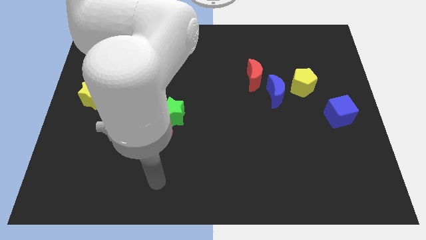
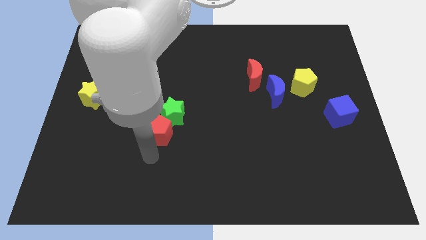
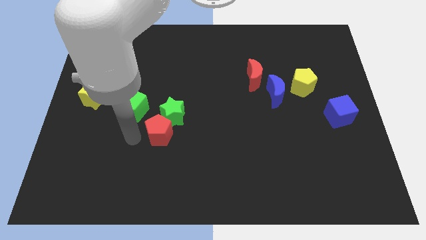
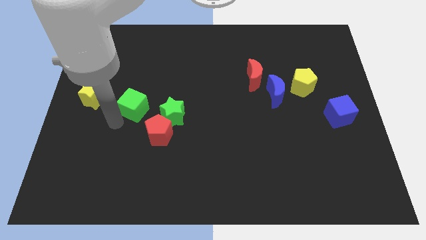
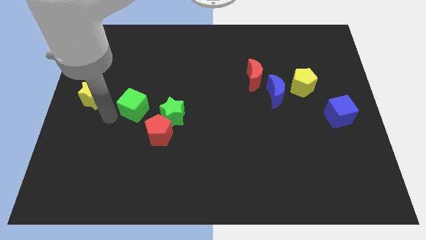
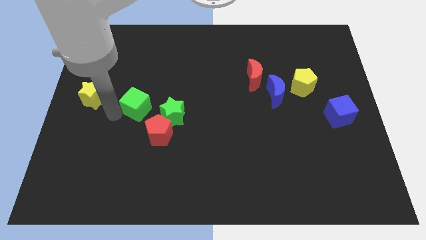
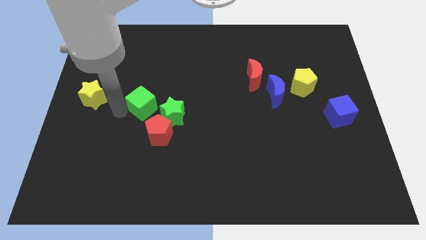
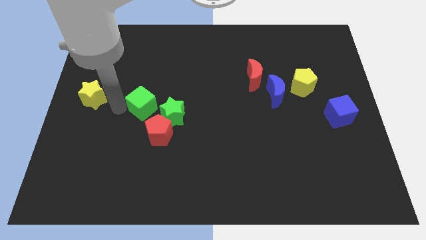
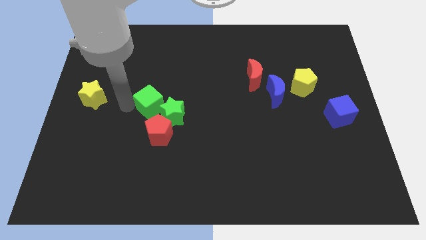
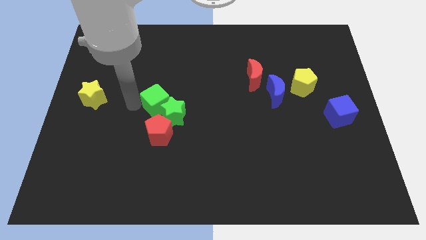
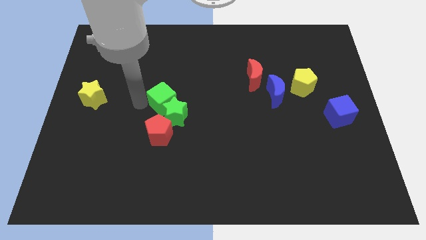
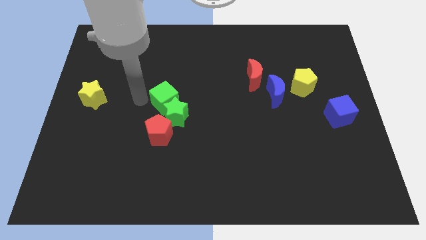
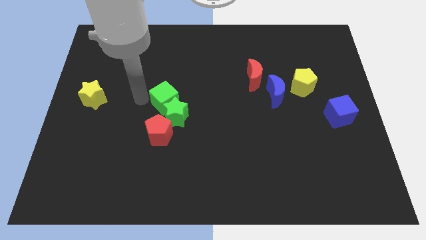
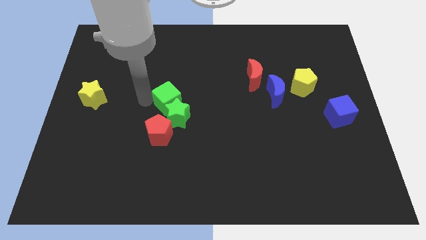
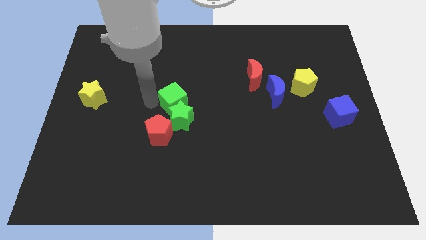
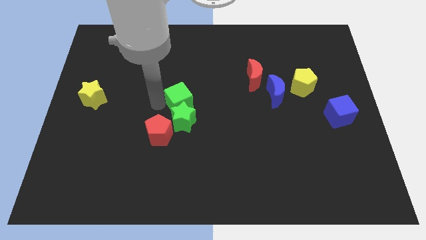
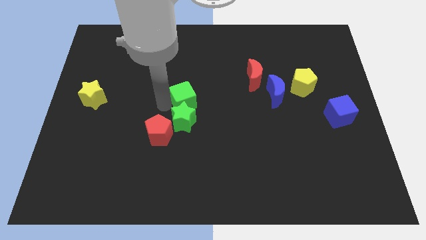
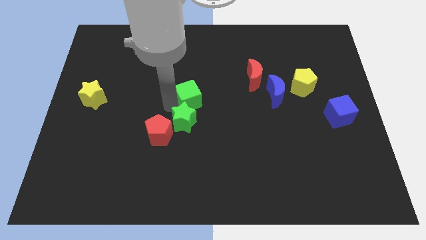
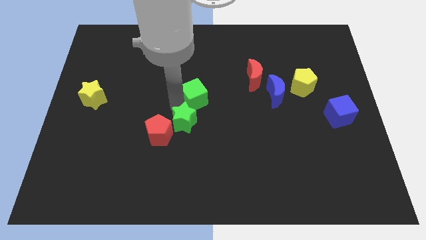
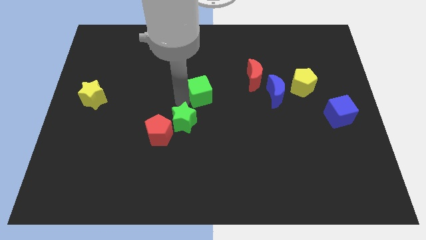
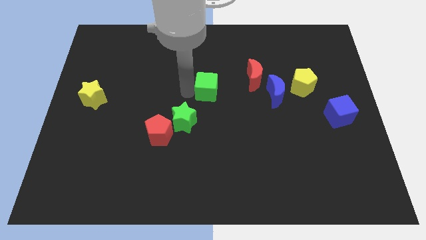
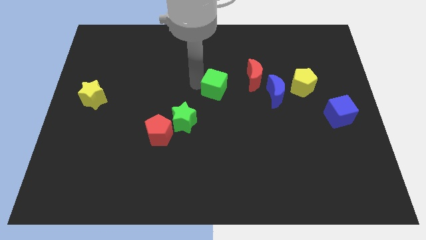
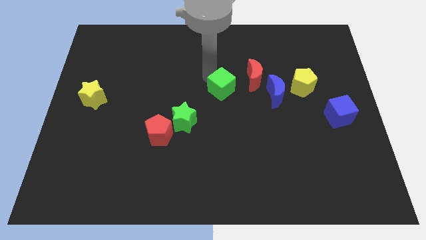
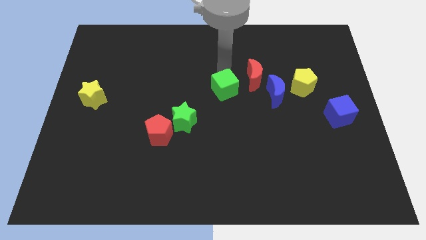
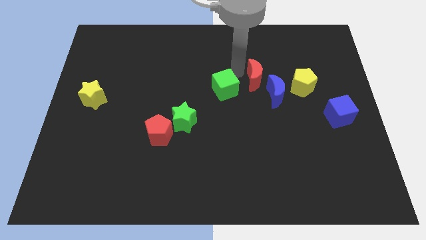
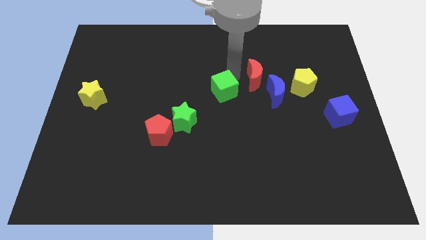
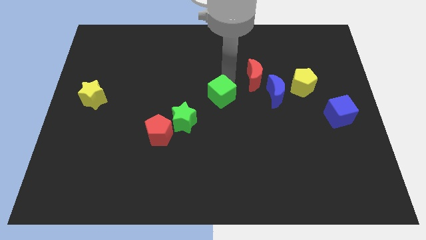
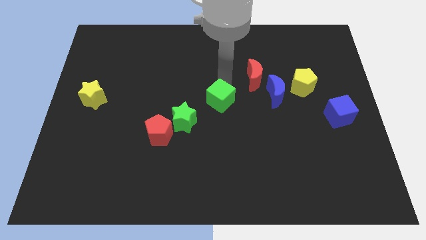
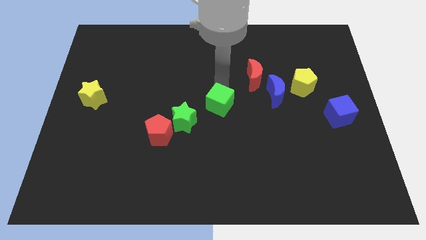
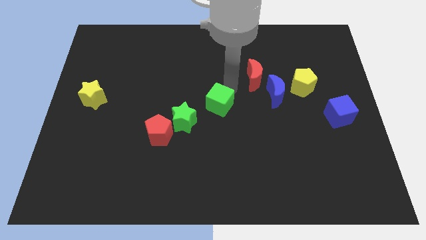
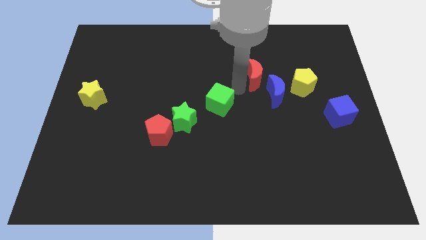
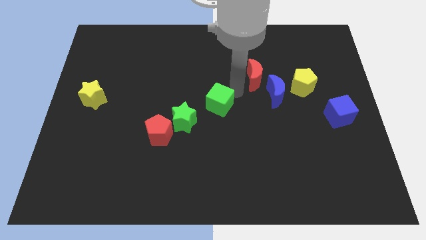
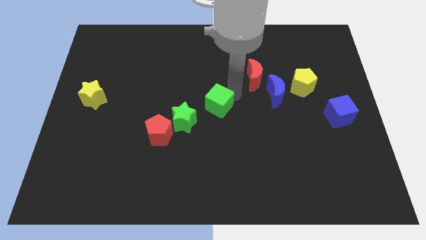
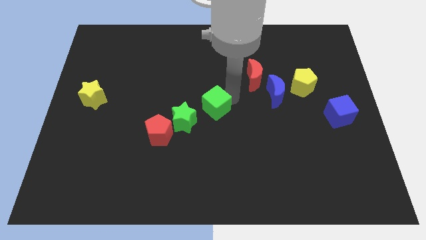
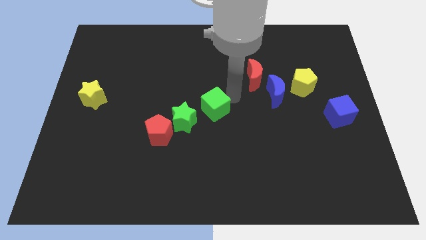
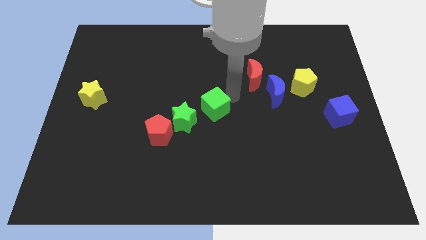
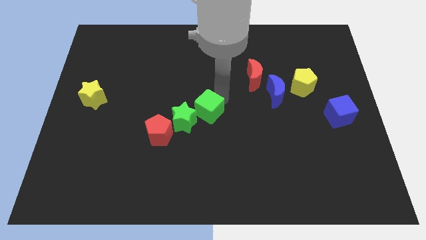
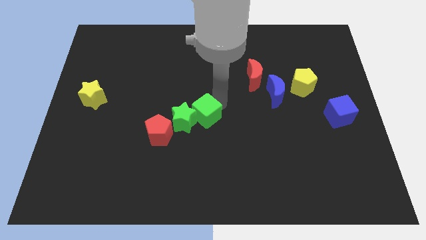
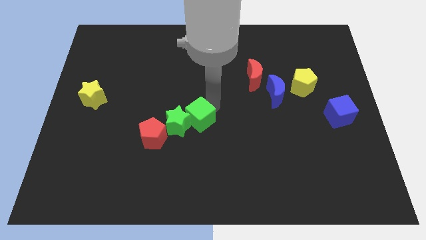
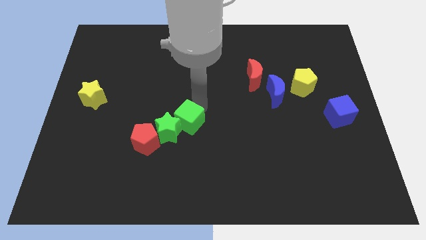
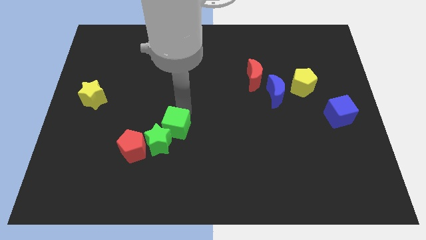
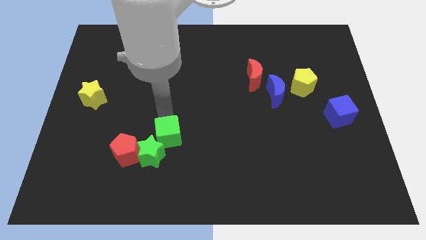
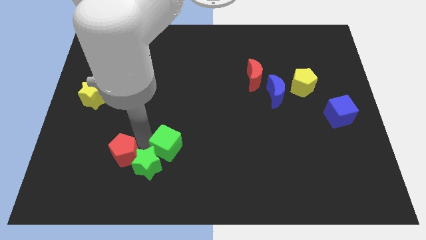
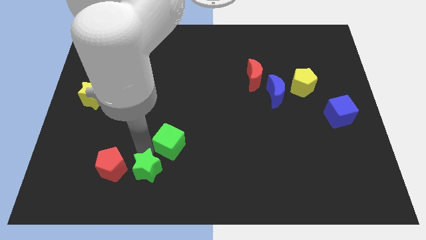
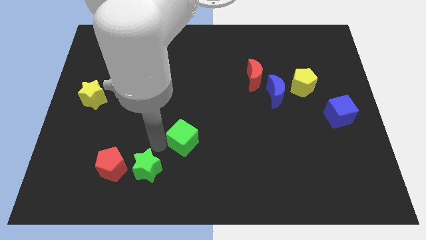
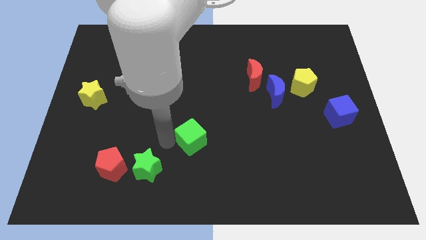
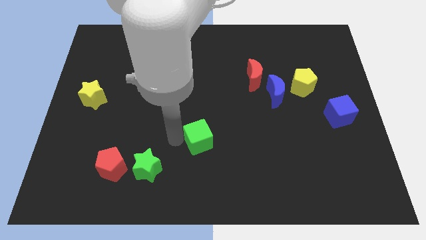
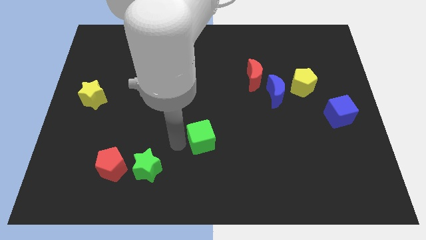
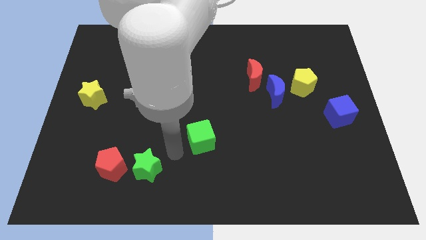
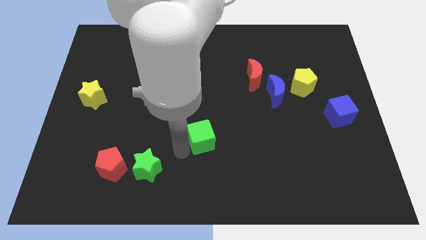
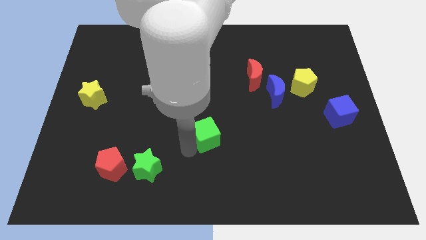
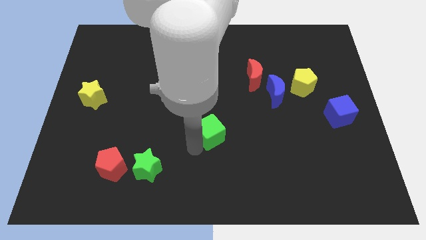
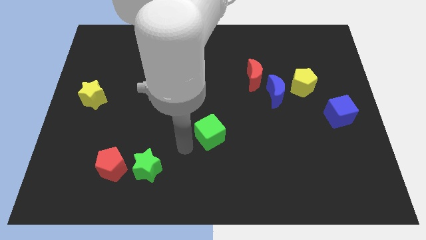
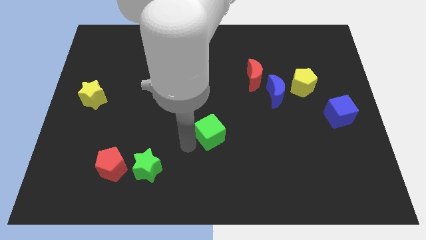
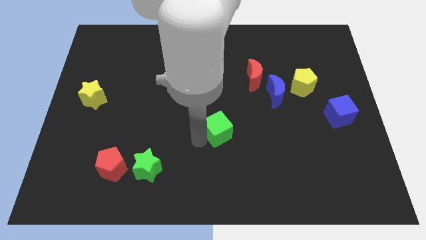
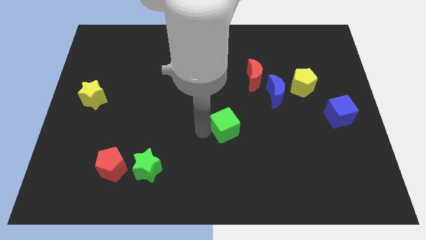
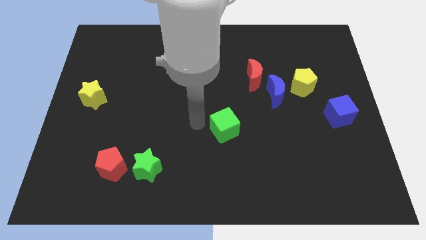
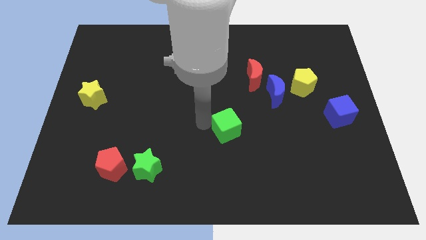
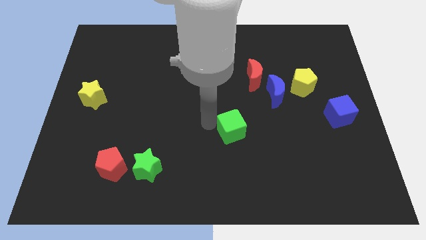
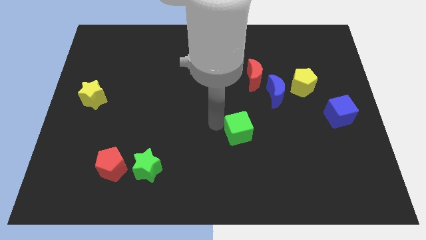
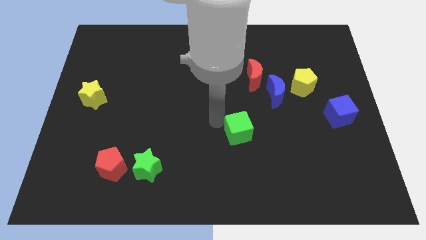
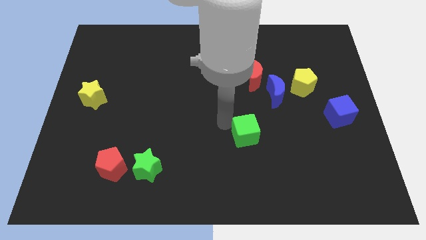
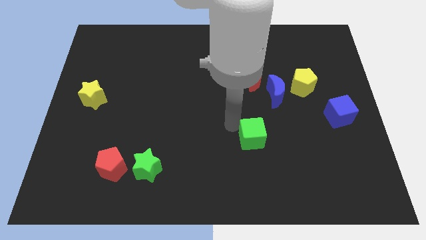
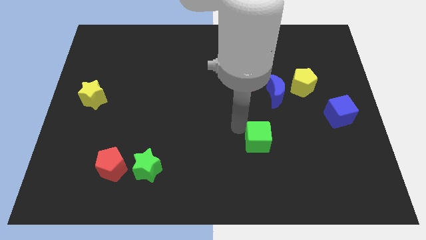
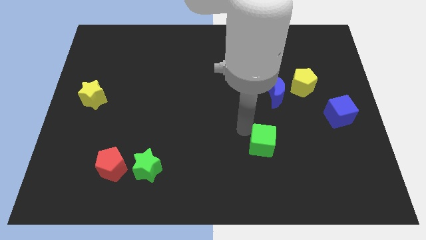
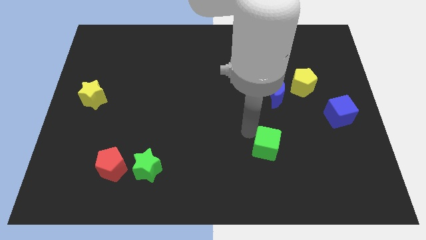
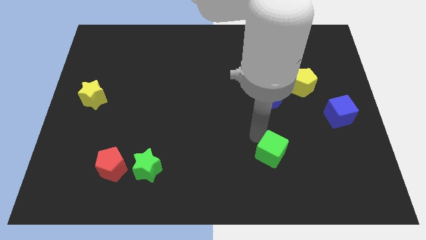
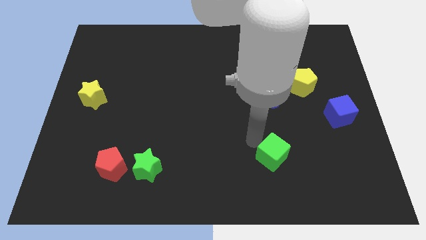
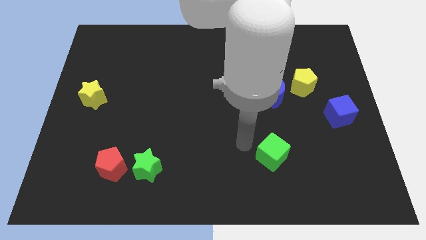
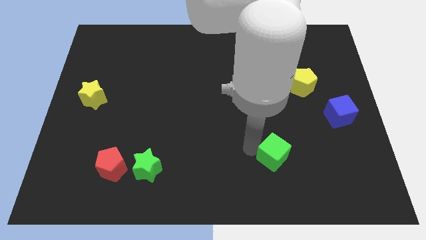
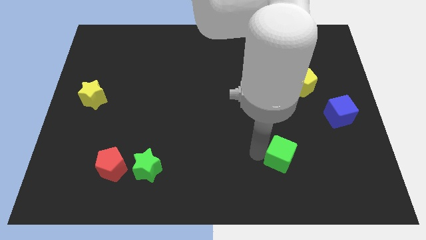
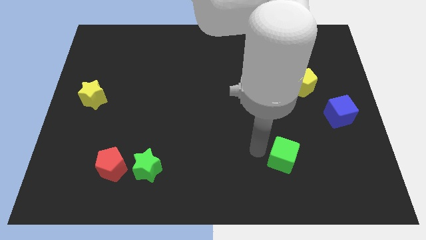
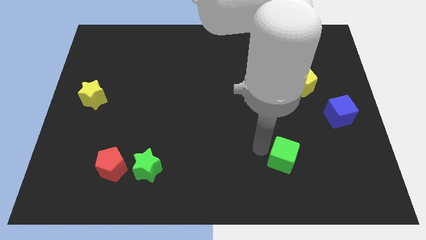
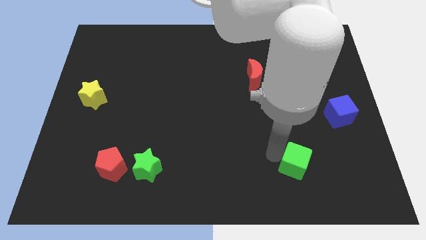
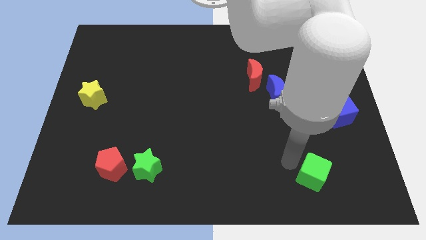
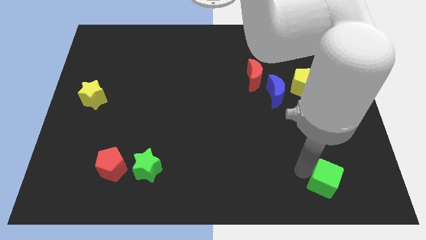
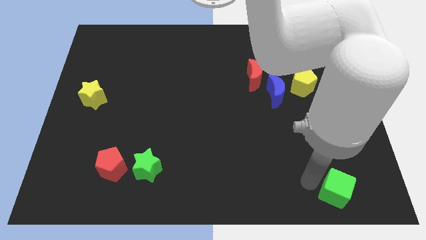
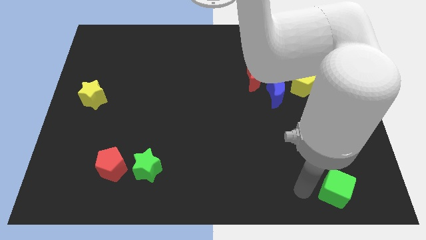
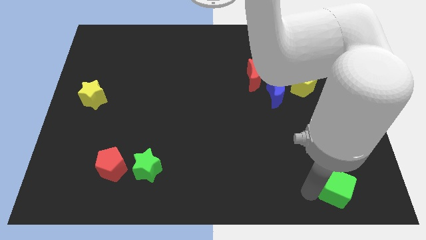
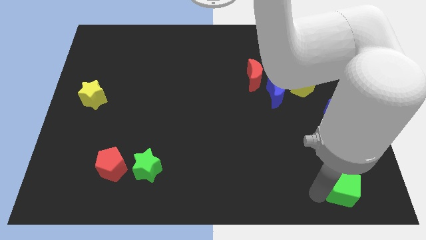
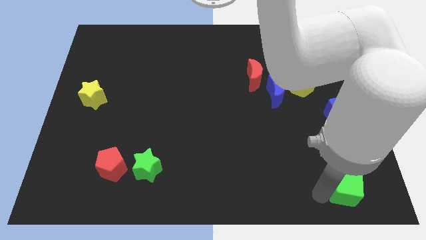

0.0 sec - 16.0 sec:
move the green cube to the bottom right of the board
